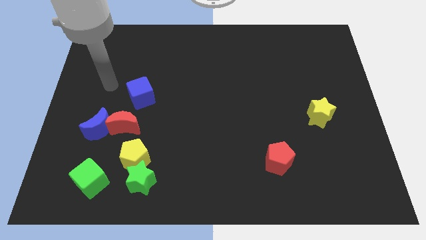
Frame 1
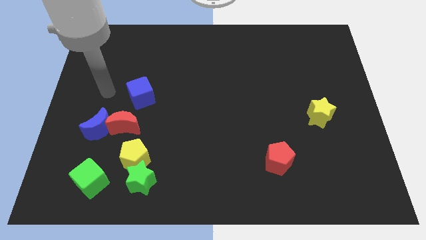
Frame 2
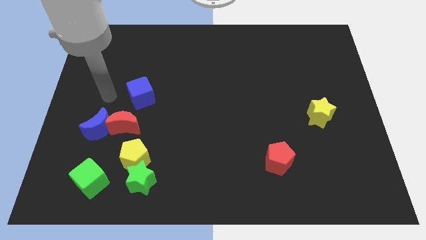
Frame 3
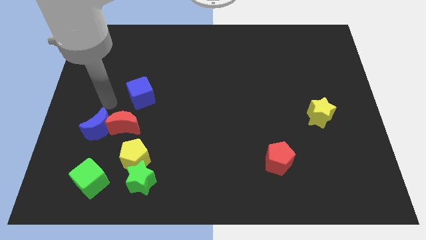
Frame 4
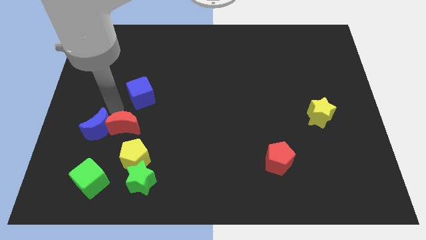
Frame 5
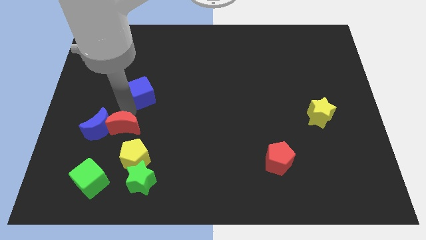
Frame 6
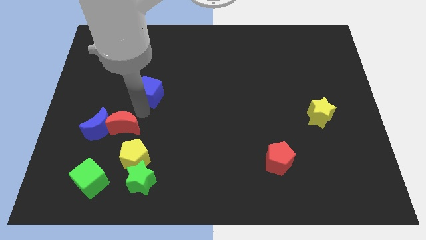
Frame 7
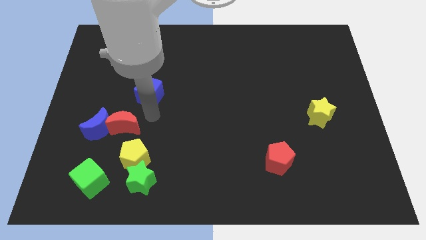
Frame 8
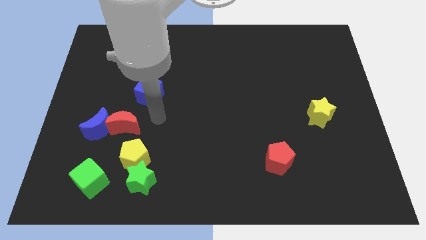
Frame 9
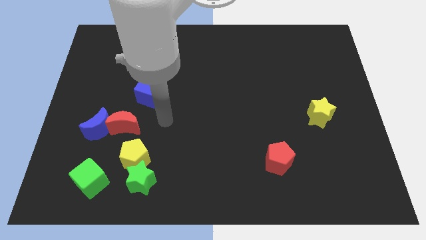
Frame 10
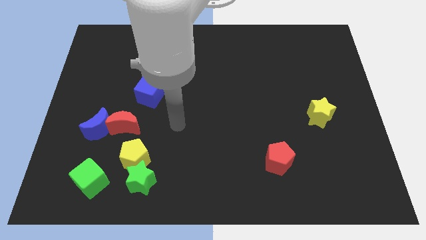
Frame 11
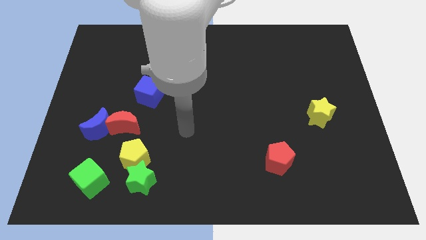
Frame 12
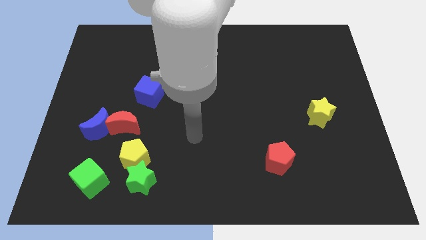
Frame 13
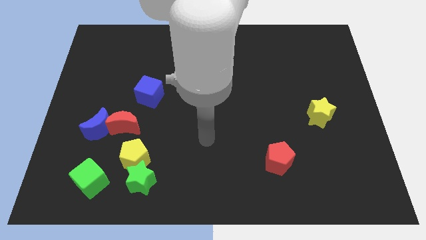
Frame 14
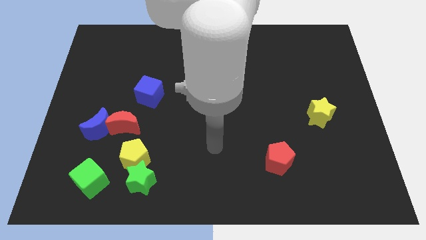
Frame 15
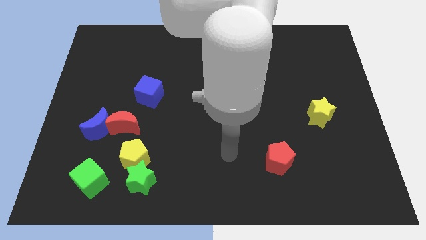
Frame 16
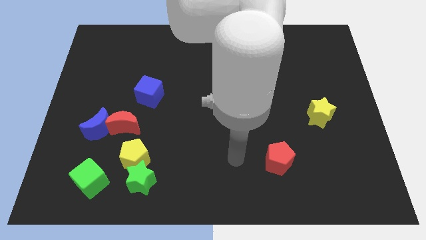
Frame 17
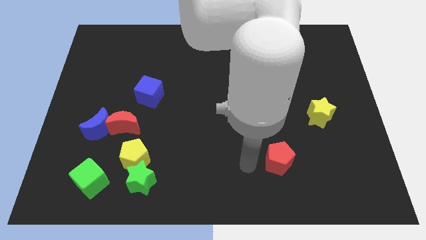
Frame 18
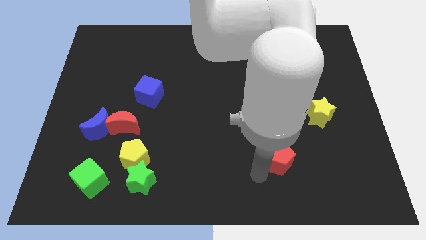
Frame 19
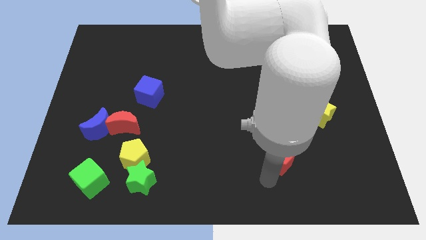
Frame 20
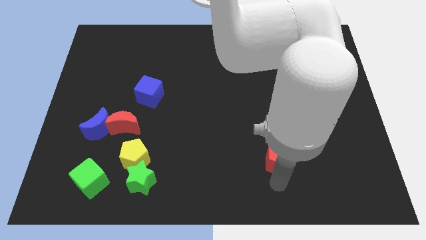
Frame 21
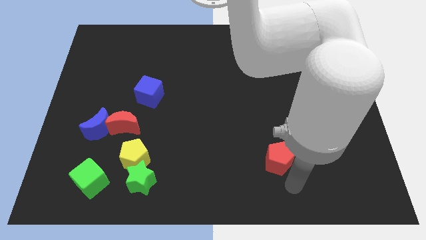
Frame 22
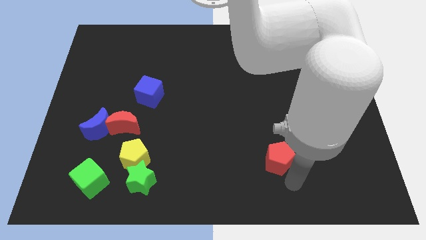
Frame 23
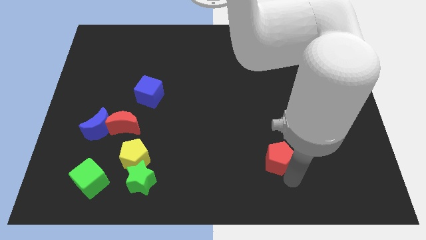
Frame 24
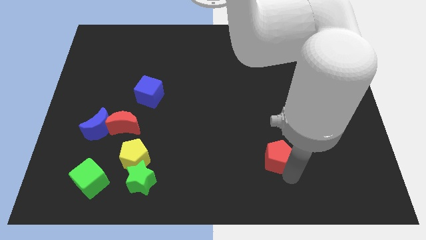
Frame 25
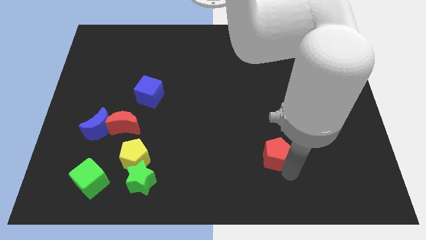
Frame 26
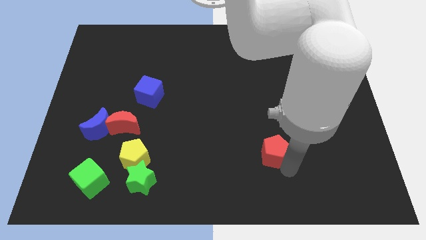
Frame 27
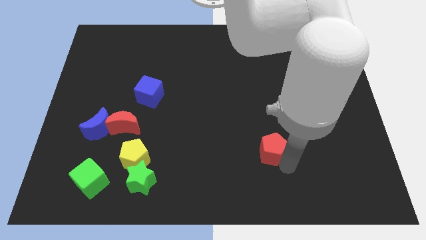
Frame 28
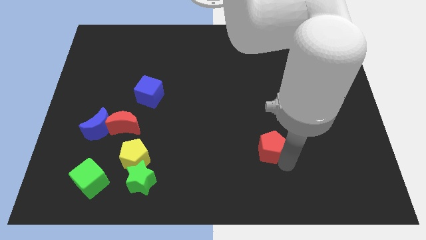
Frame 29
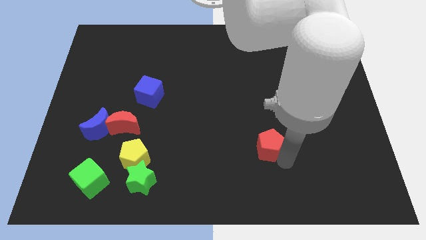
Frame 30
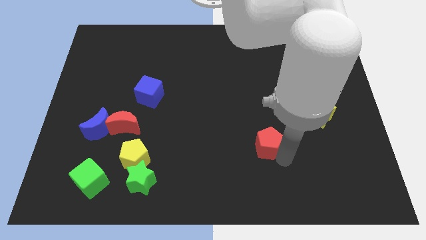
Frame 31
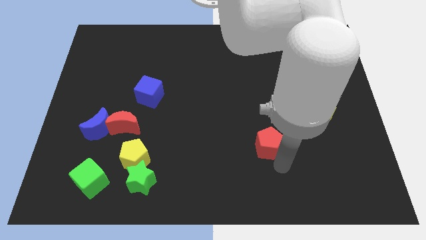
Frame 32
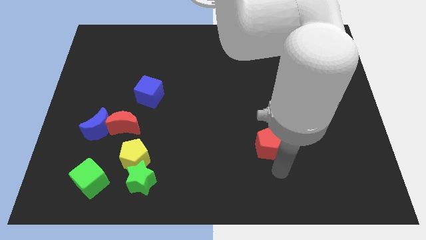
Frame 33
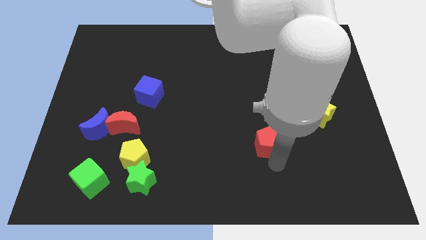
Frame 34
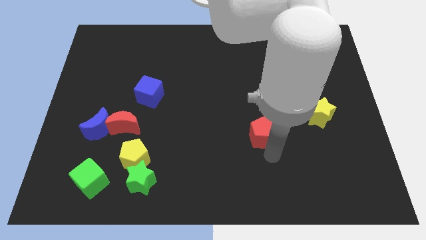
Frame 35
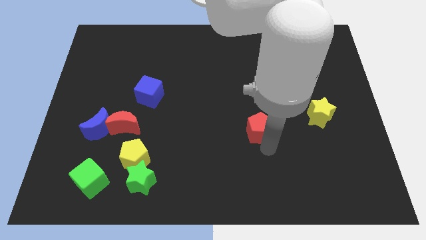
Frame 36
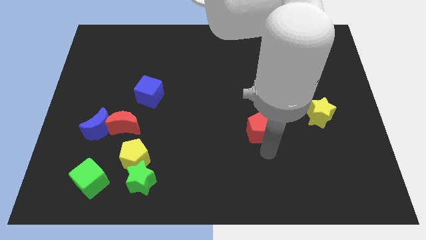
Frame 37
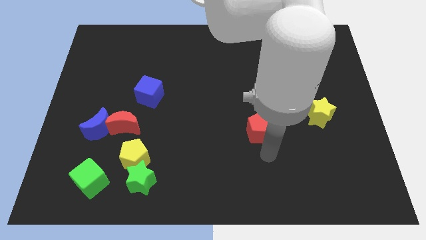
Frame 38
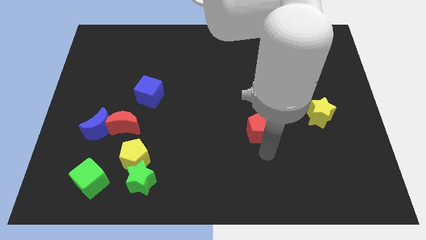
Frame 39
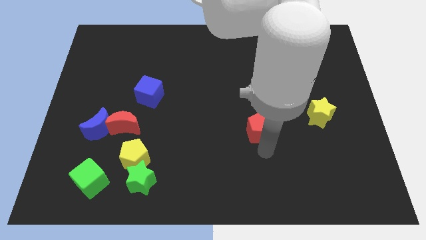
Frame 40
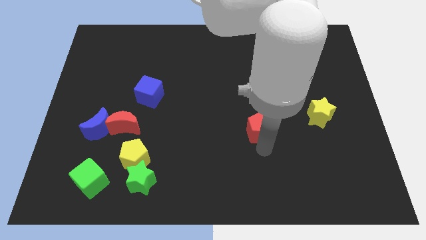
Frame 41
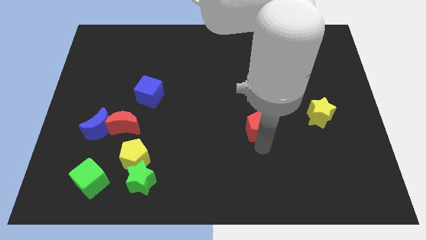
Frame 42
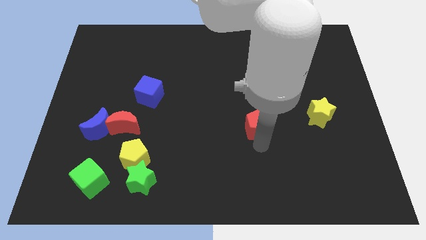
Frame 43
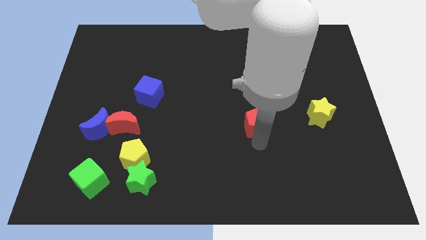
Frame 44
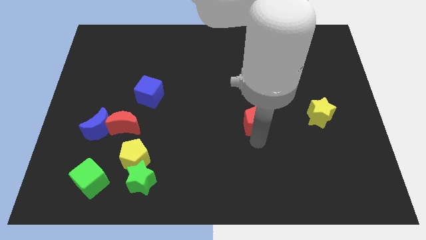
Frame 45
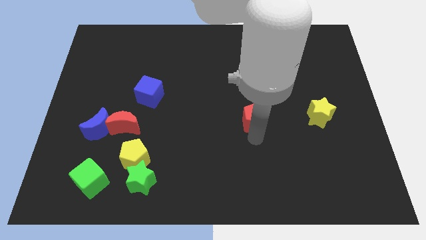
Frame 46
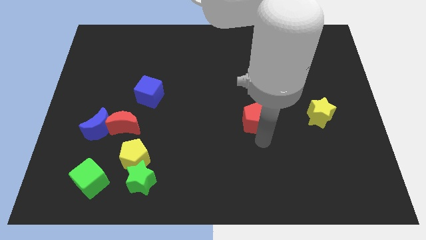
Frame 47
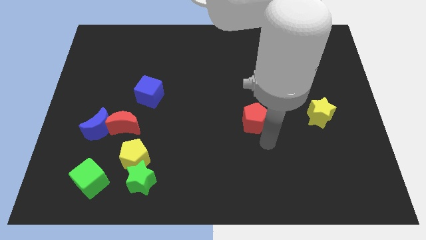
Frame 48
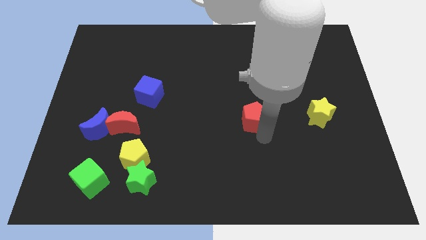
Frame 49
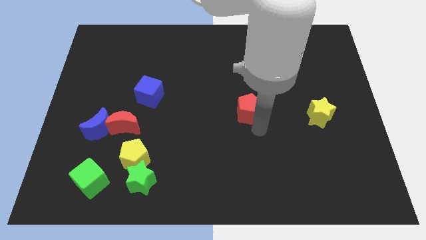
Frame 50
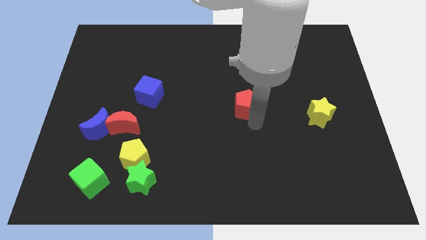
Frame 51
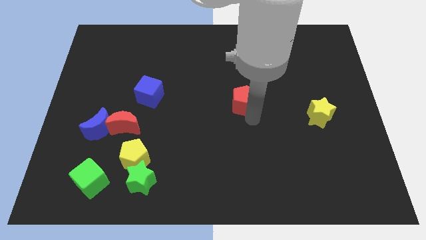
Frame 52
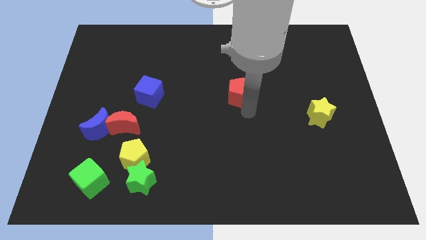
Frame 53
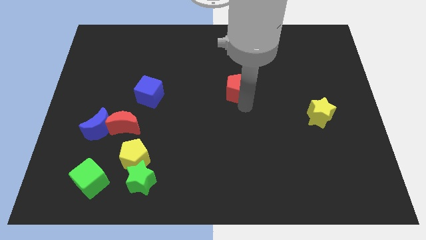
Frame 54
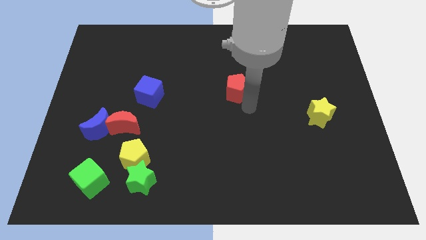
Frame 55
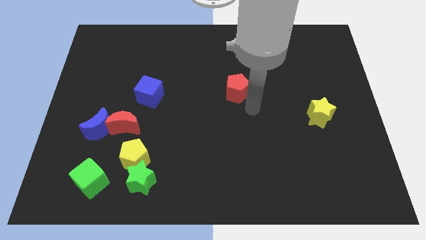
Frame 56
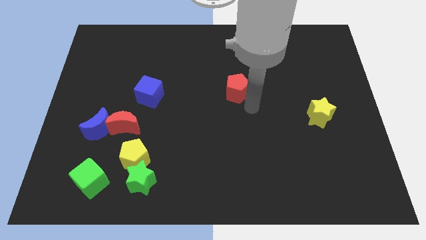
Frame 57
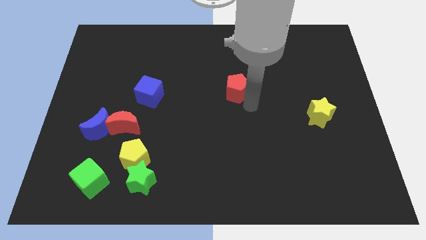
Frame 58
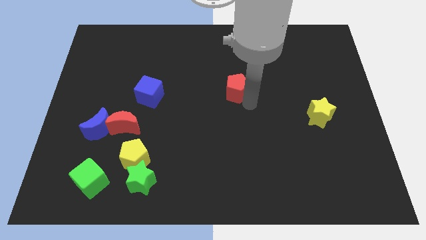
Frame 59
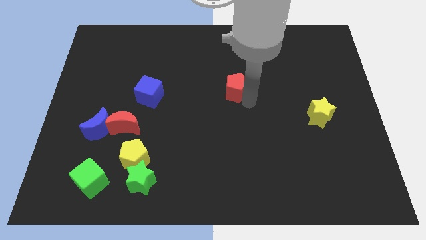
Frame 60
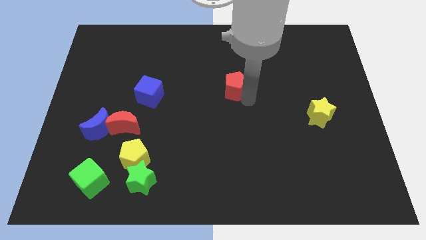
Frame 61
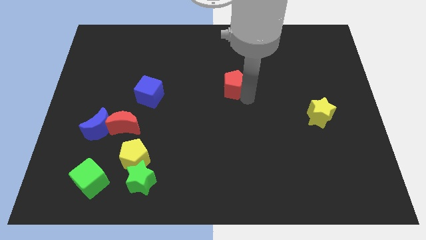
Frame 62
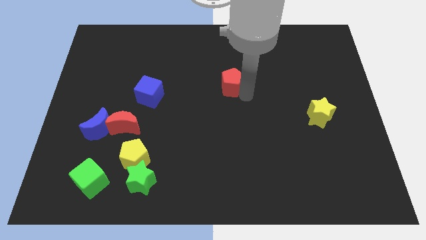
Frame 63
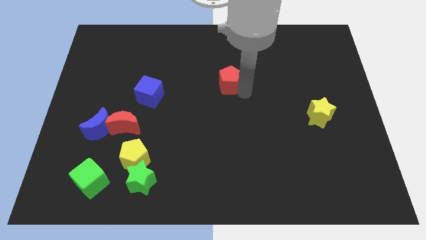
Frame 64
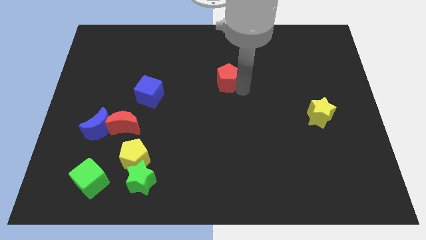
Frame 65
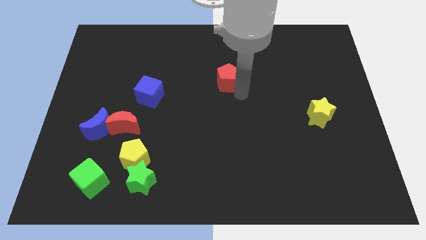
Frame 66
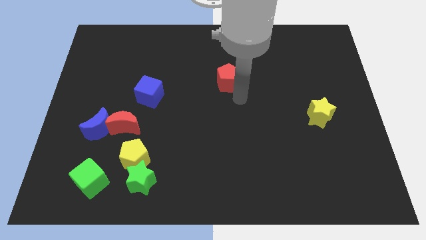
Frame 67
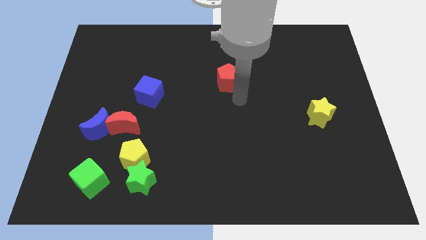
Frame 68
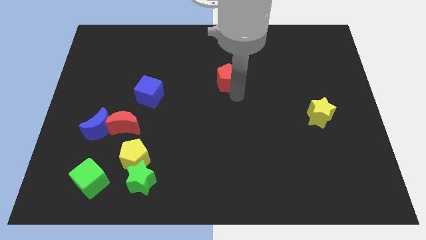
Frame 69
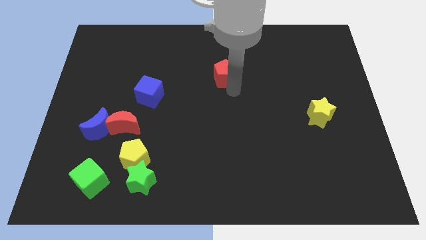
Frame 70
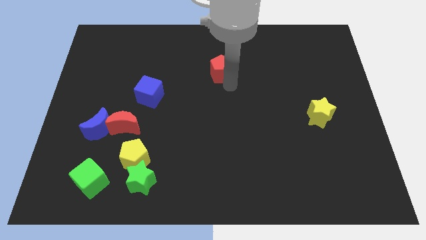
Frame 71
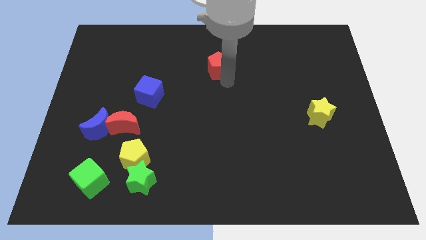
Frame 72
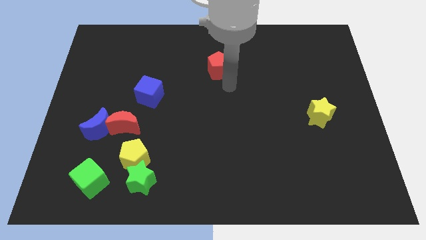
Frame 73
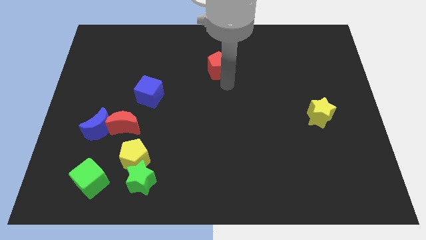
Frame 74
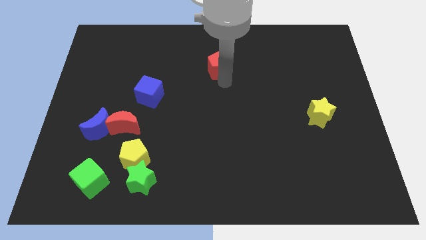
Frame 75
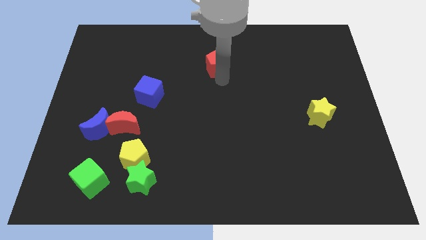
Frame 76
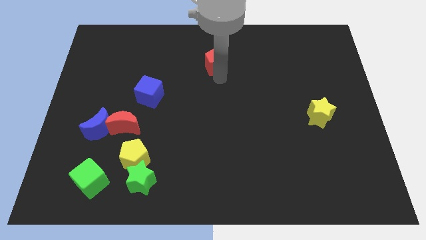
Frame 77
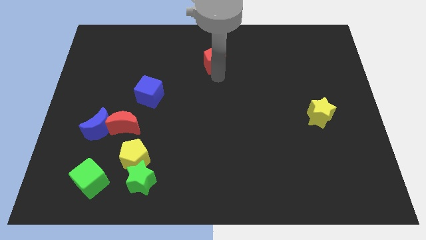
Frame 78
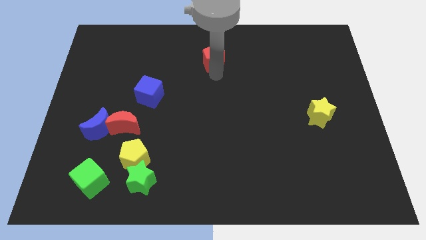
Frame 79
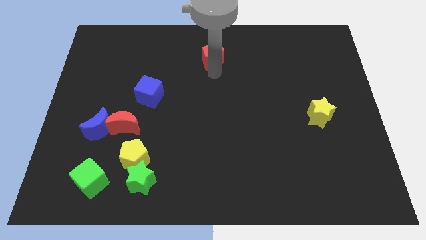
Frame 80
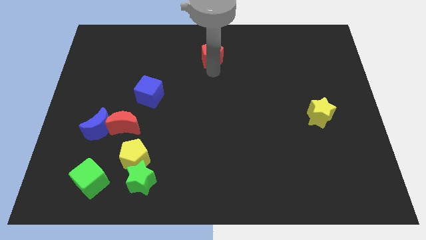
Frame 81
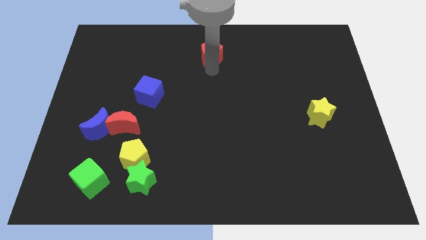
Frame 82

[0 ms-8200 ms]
push the red pentagon to the top side
